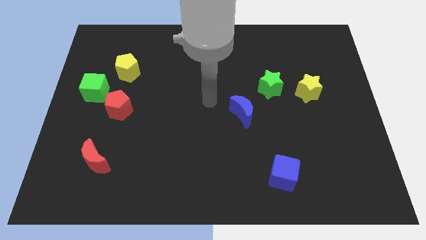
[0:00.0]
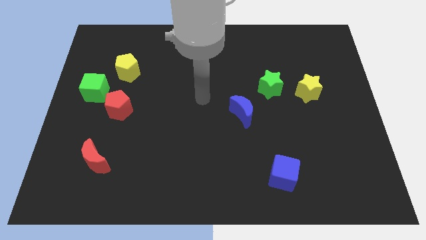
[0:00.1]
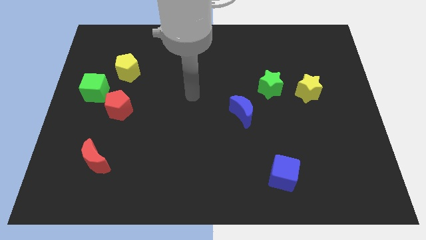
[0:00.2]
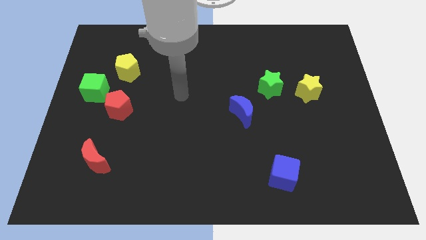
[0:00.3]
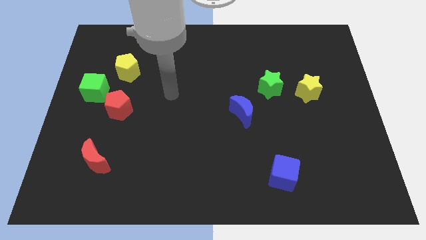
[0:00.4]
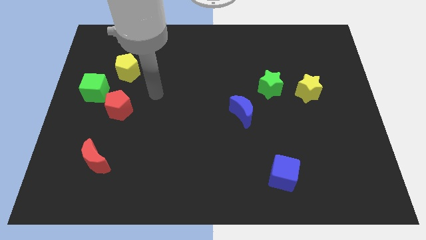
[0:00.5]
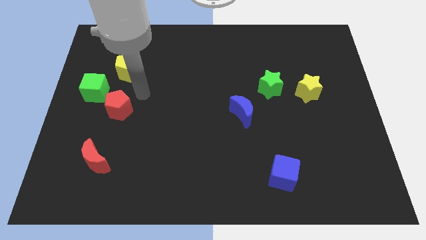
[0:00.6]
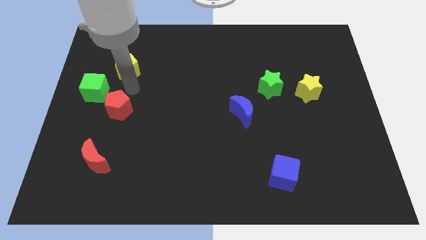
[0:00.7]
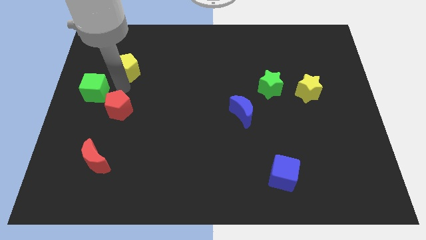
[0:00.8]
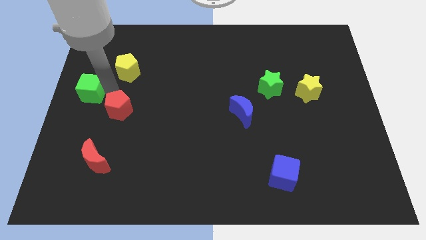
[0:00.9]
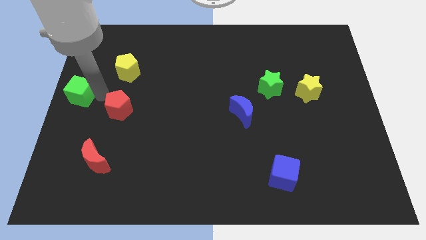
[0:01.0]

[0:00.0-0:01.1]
move the red pentagon away from the green cube

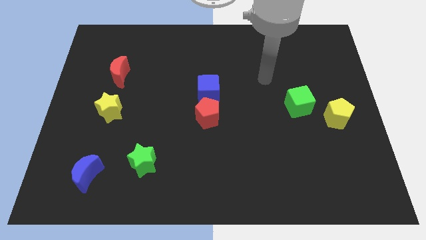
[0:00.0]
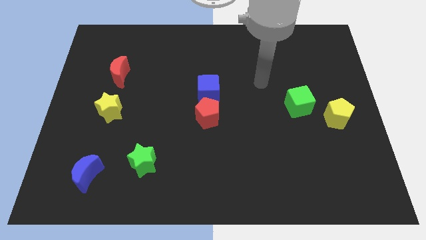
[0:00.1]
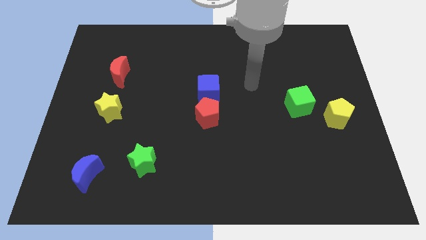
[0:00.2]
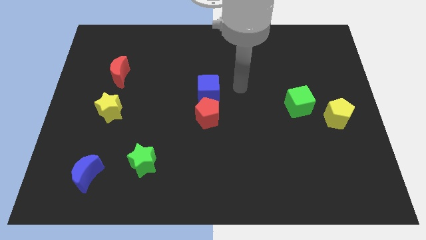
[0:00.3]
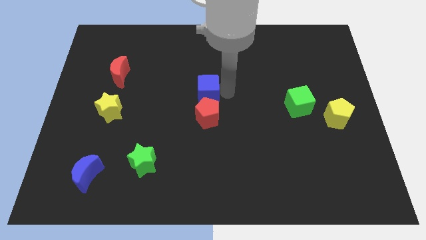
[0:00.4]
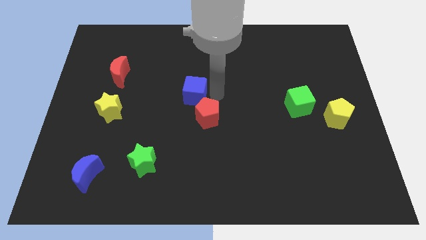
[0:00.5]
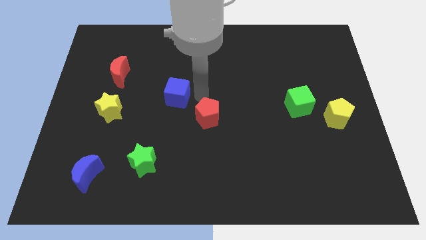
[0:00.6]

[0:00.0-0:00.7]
pull the red pentagon apart from the blue cube

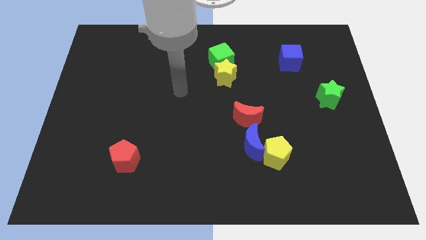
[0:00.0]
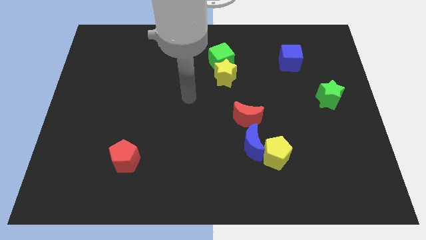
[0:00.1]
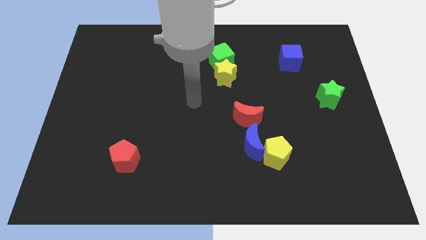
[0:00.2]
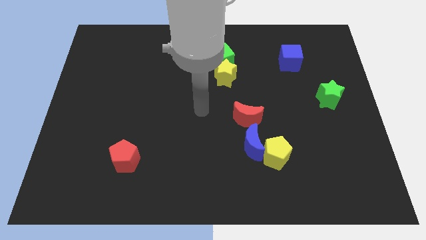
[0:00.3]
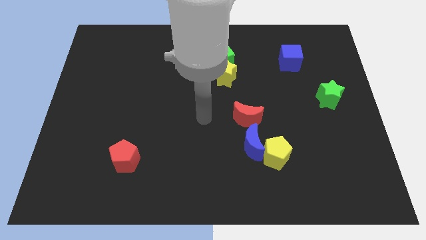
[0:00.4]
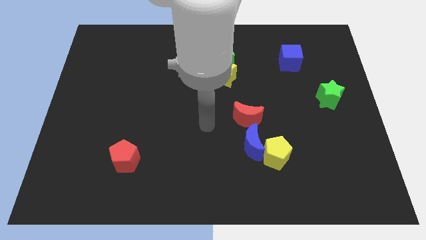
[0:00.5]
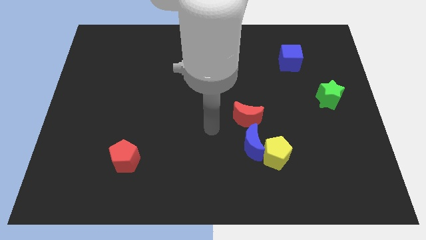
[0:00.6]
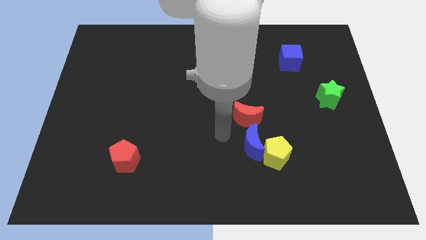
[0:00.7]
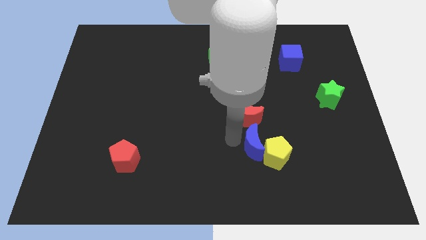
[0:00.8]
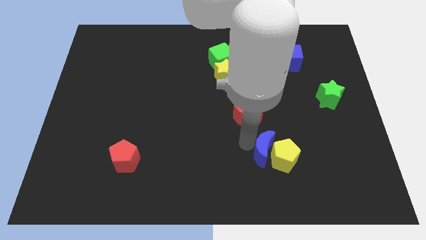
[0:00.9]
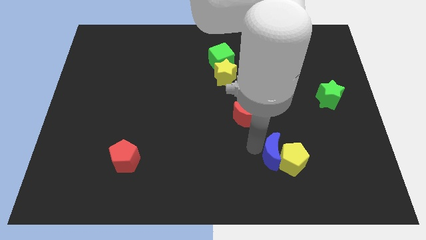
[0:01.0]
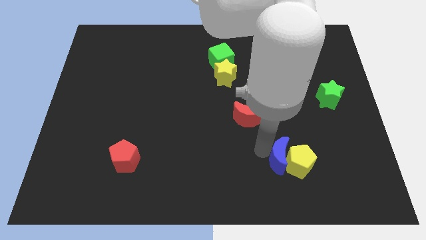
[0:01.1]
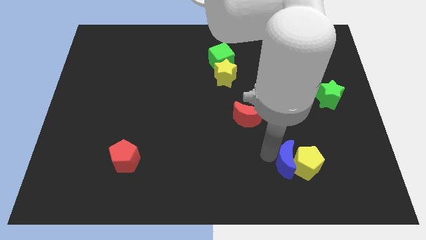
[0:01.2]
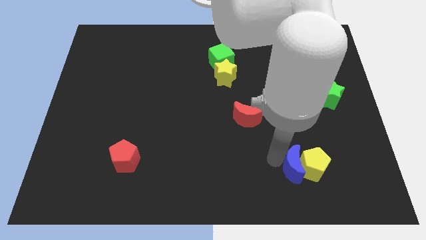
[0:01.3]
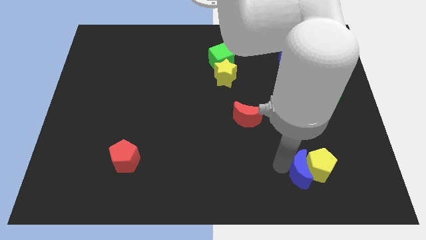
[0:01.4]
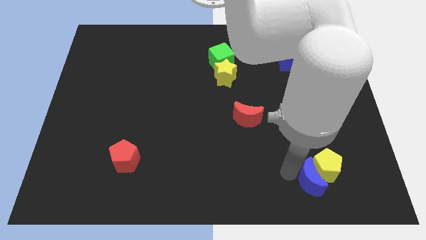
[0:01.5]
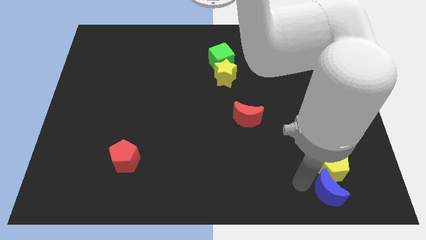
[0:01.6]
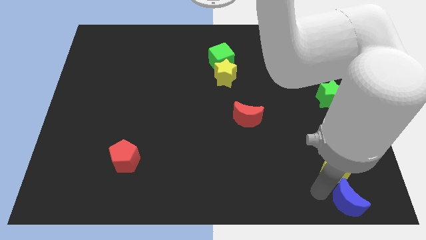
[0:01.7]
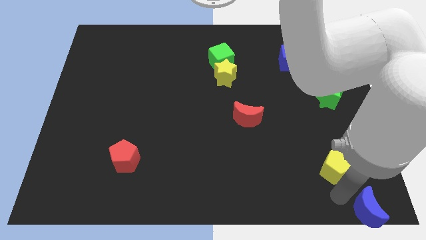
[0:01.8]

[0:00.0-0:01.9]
move the yellow pentagon away from the blue moon

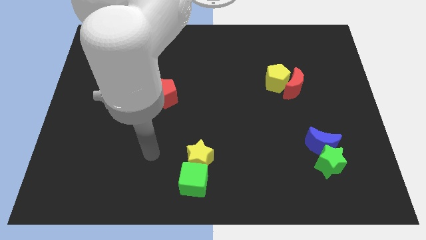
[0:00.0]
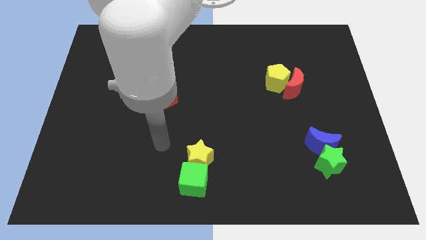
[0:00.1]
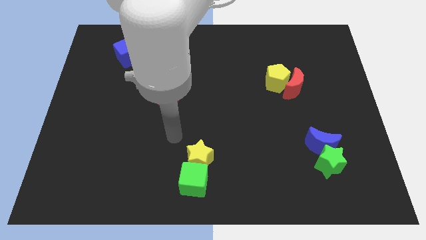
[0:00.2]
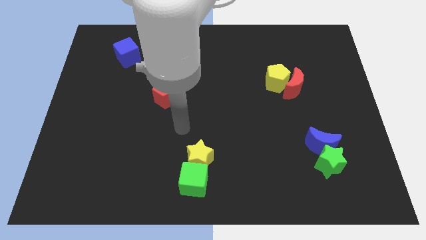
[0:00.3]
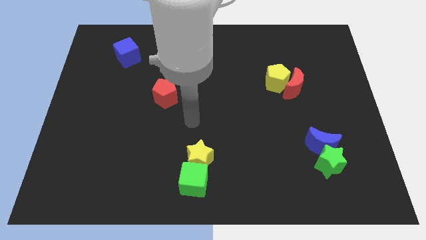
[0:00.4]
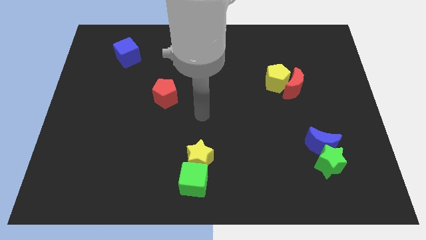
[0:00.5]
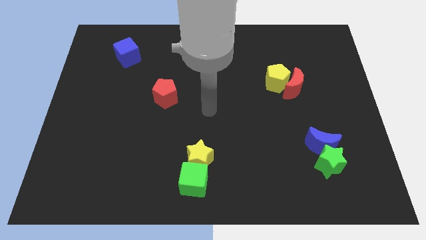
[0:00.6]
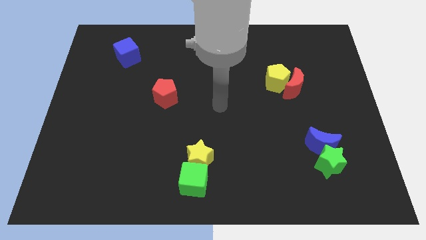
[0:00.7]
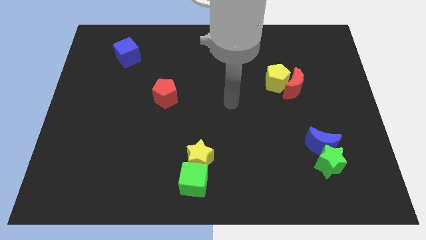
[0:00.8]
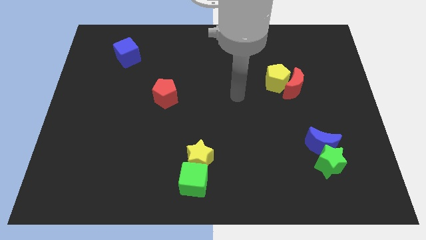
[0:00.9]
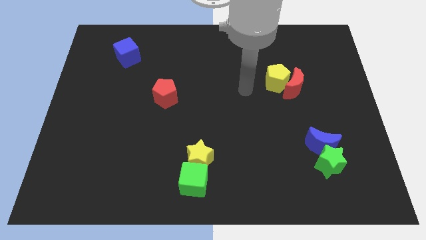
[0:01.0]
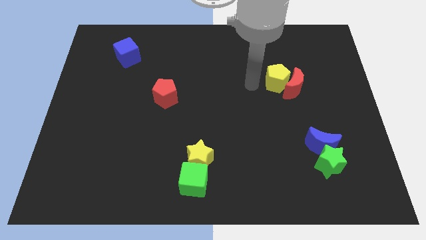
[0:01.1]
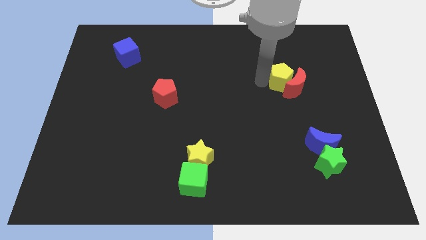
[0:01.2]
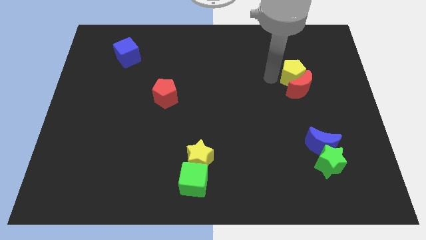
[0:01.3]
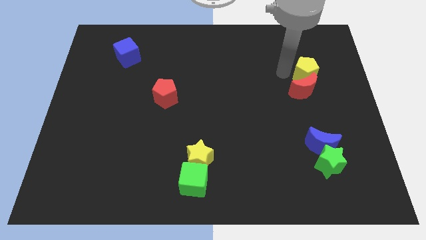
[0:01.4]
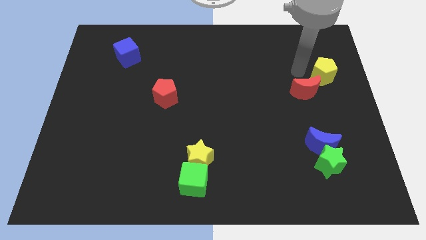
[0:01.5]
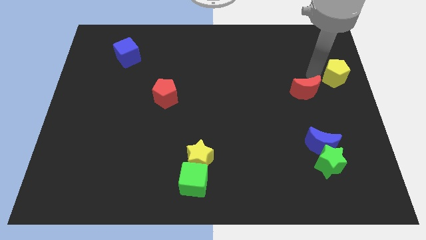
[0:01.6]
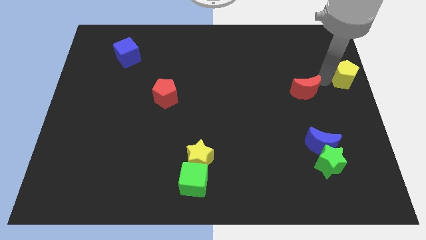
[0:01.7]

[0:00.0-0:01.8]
pull the red moon apart from the yellow pentagon

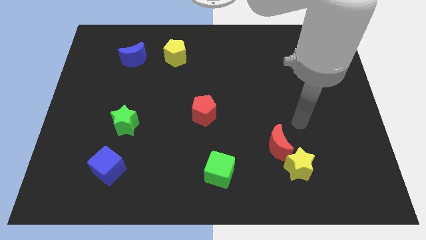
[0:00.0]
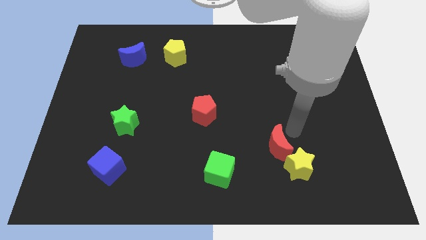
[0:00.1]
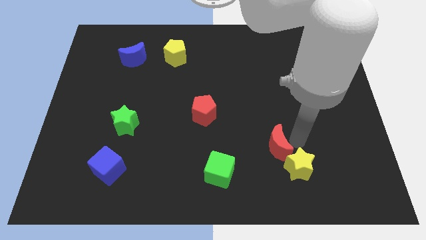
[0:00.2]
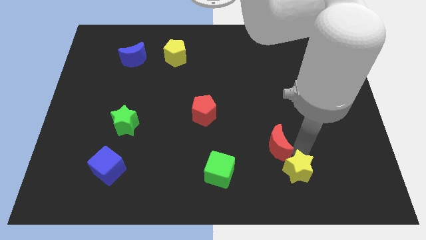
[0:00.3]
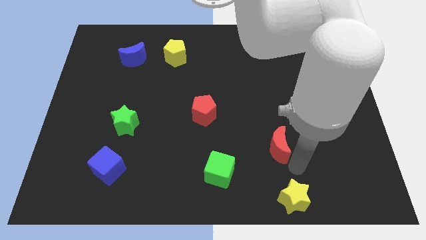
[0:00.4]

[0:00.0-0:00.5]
move the red moon away from the yellow star

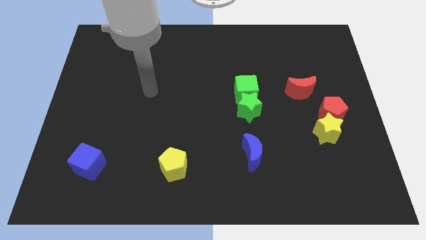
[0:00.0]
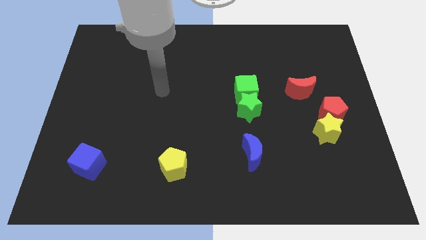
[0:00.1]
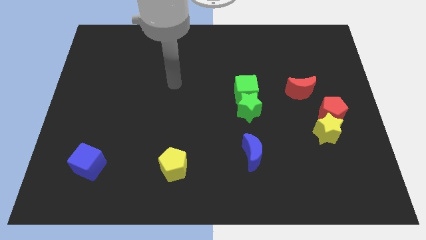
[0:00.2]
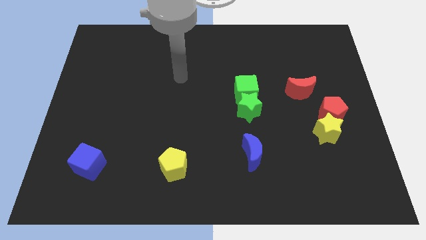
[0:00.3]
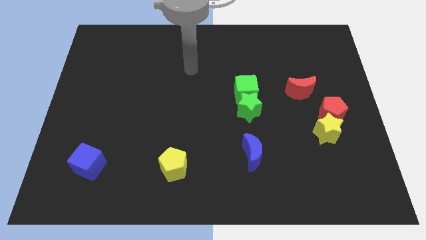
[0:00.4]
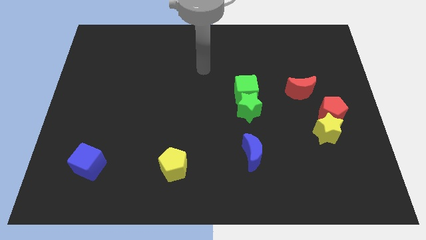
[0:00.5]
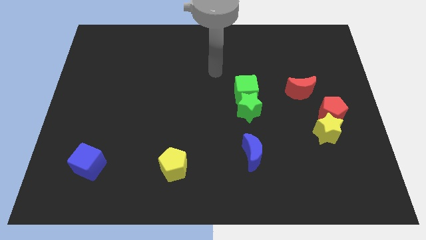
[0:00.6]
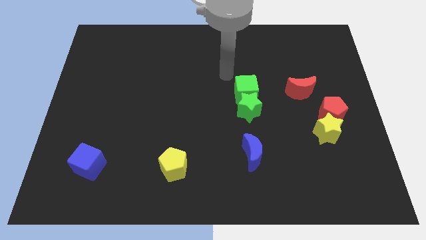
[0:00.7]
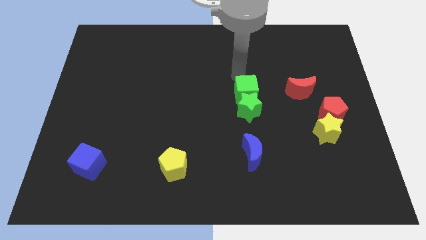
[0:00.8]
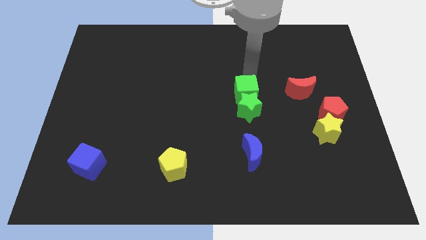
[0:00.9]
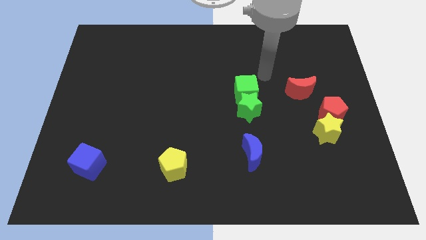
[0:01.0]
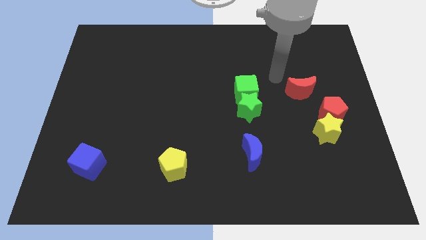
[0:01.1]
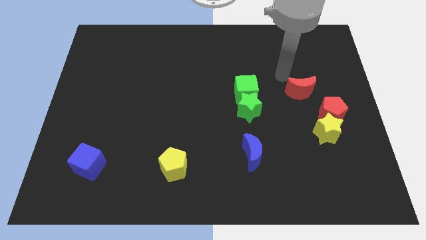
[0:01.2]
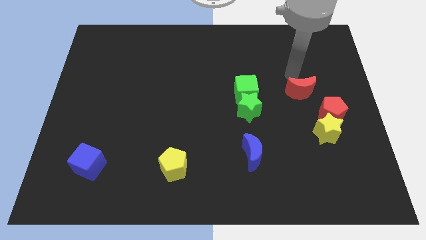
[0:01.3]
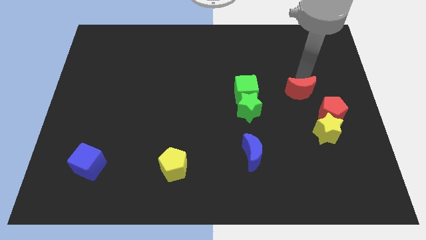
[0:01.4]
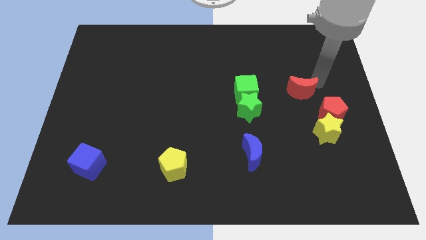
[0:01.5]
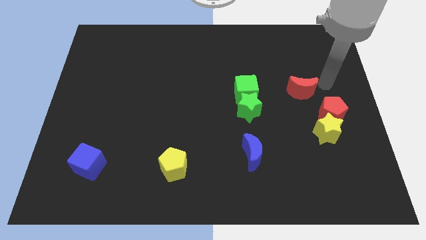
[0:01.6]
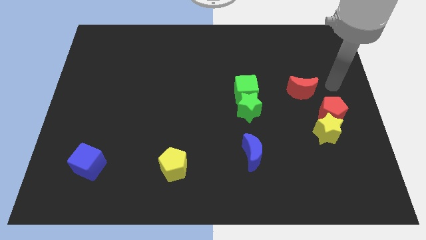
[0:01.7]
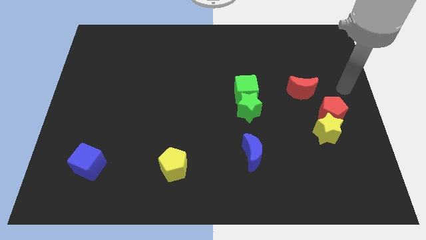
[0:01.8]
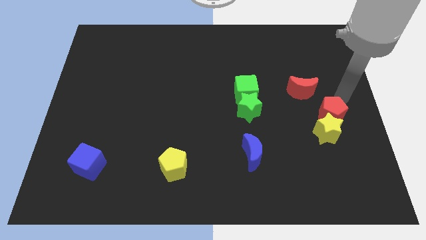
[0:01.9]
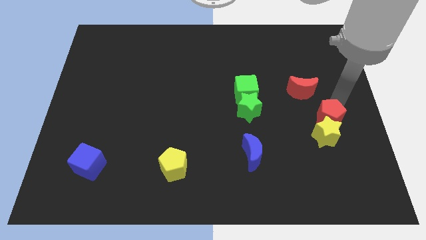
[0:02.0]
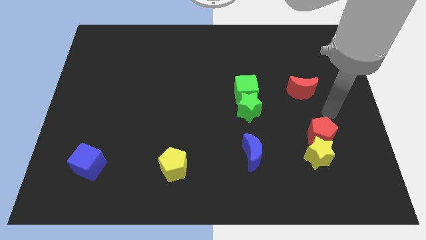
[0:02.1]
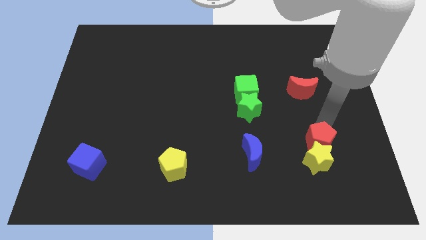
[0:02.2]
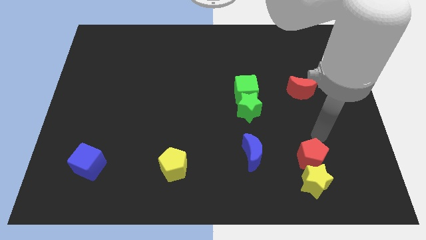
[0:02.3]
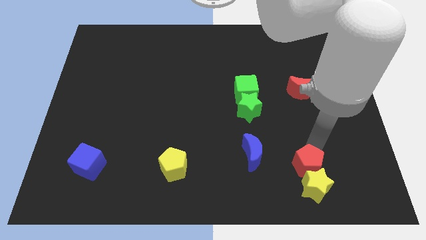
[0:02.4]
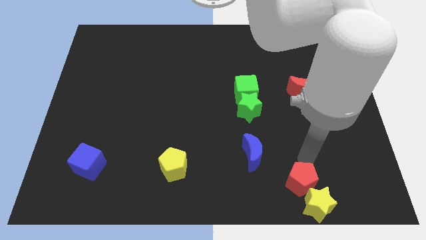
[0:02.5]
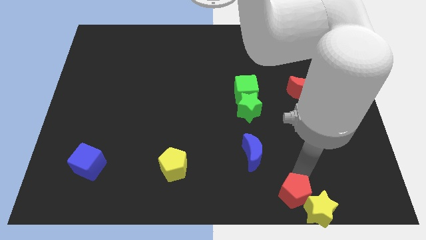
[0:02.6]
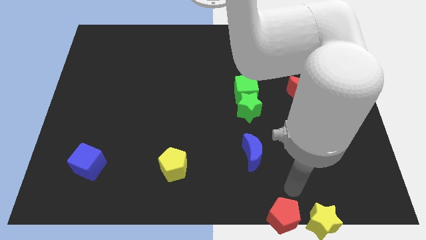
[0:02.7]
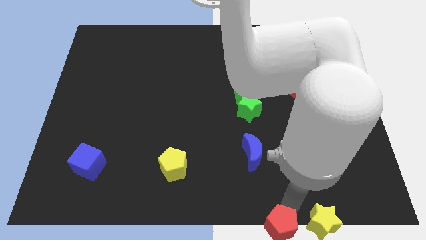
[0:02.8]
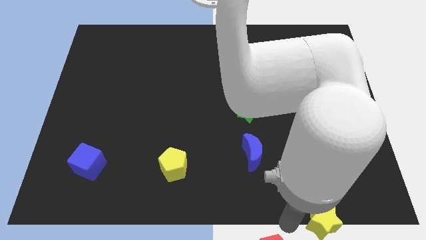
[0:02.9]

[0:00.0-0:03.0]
move the yellow star away from the red pentagon

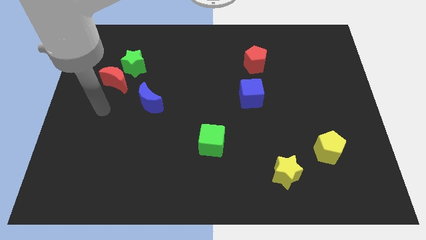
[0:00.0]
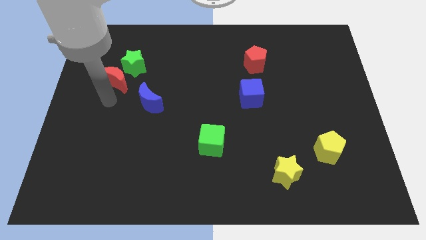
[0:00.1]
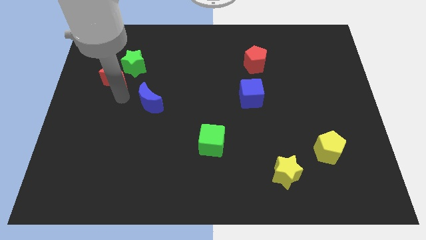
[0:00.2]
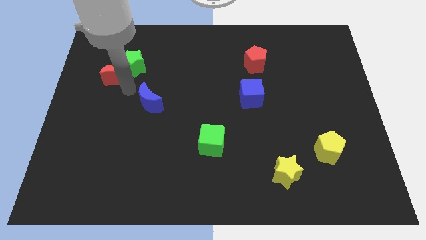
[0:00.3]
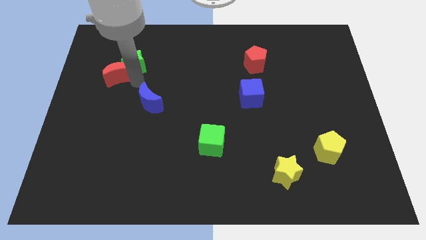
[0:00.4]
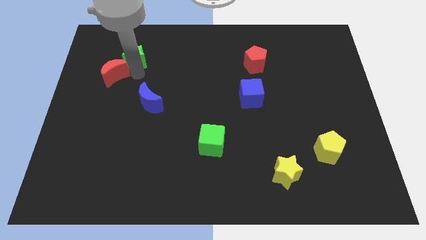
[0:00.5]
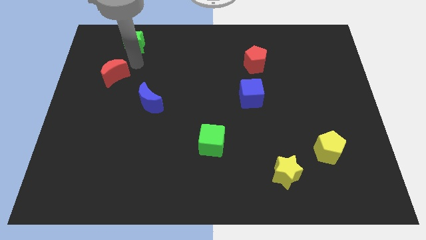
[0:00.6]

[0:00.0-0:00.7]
pull the red moon apart from the green star
